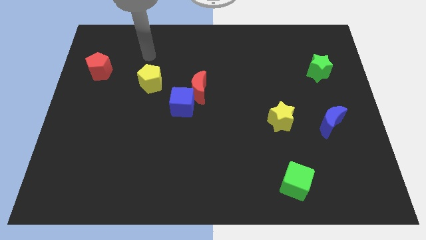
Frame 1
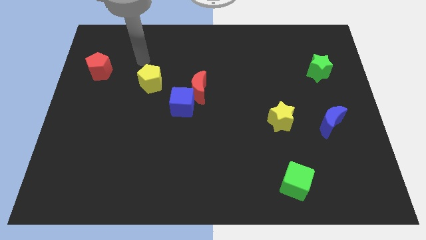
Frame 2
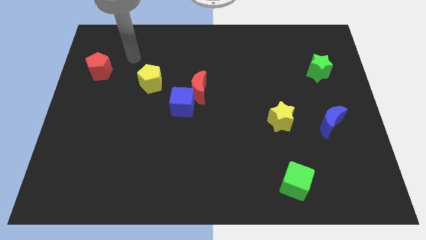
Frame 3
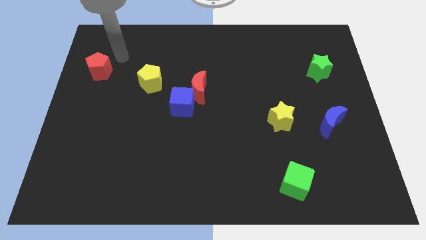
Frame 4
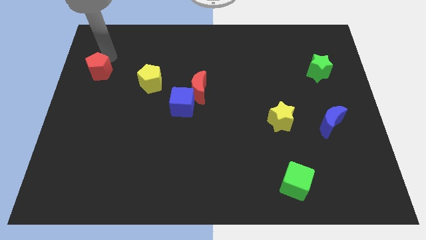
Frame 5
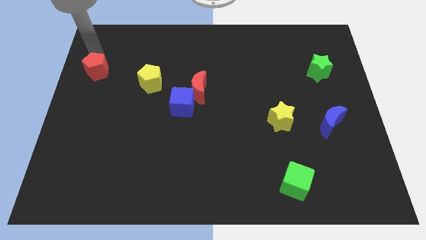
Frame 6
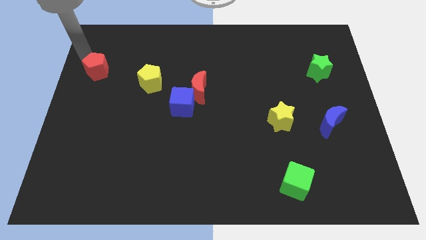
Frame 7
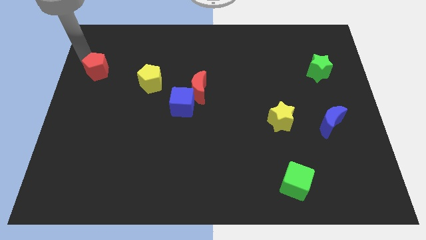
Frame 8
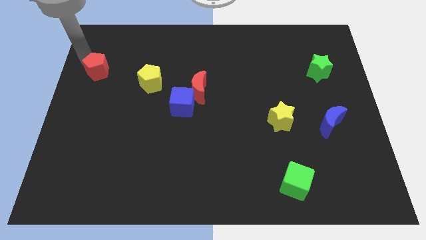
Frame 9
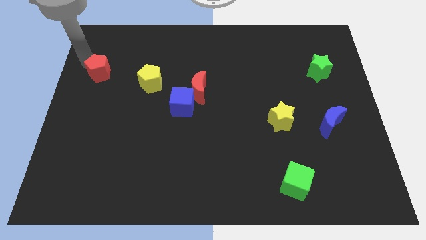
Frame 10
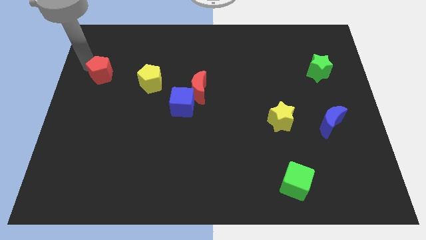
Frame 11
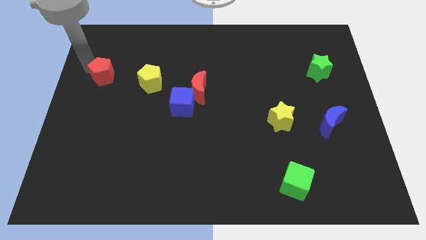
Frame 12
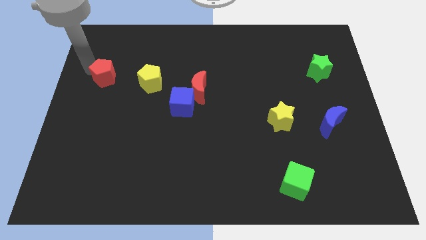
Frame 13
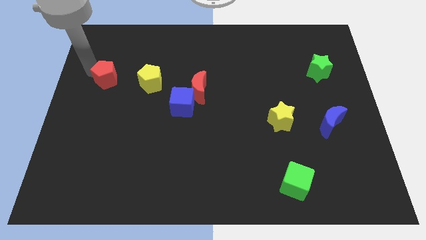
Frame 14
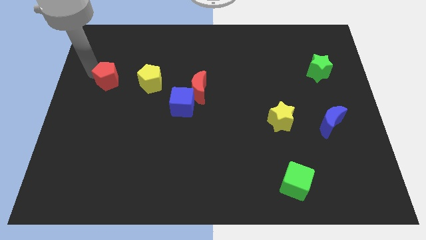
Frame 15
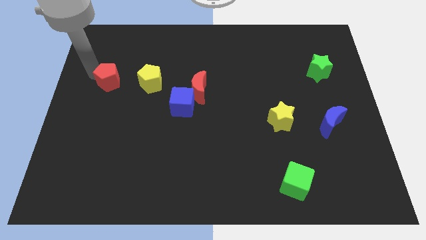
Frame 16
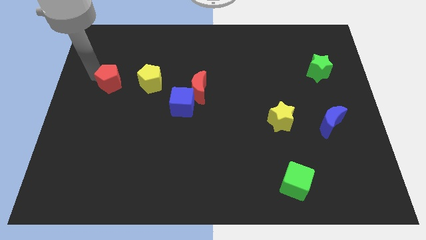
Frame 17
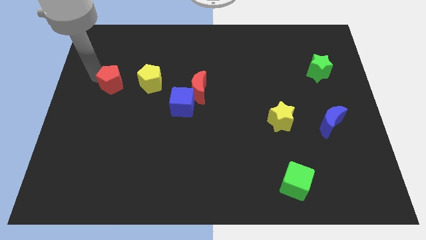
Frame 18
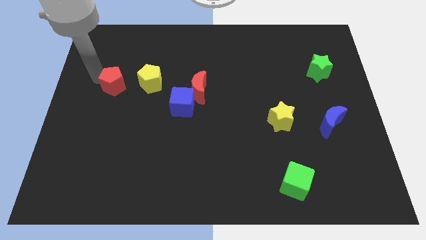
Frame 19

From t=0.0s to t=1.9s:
push the red pentagon a little down and right

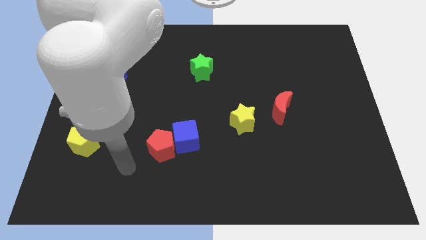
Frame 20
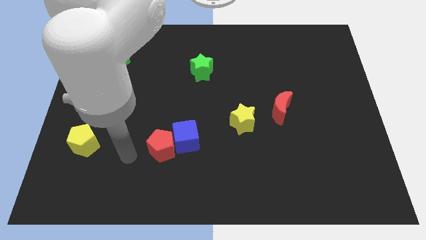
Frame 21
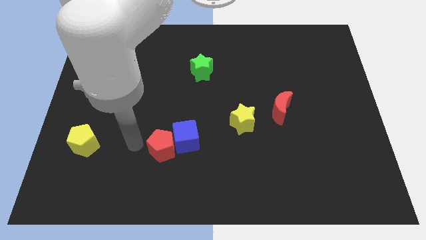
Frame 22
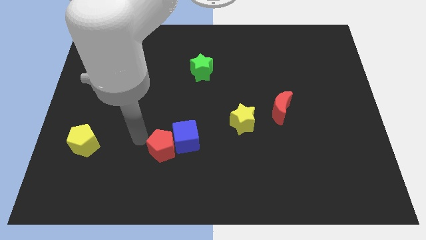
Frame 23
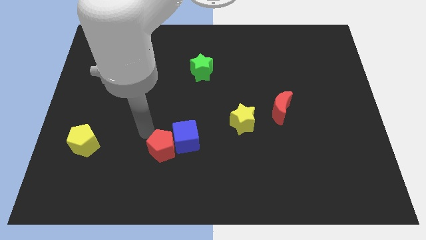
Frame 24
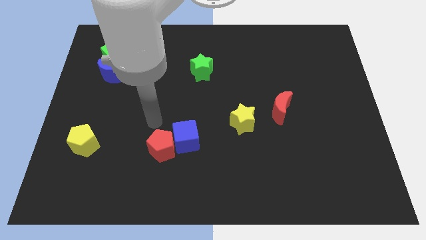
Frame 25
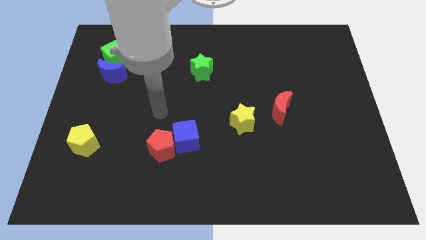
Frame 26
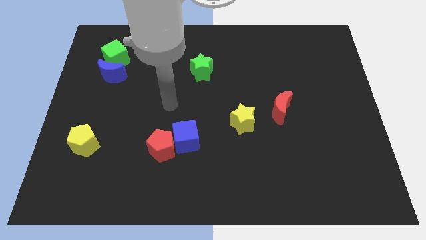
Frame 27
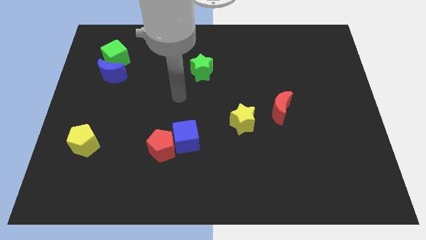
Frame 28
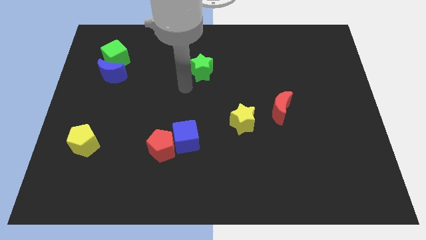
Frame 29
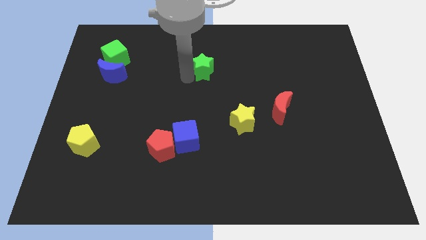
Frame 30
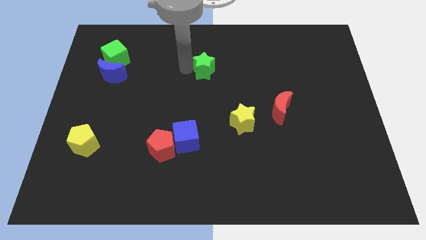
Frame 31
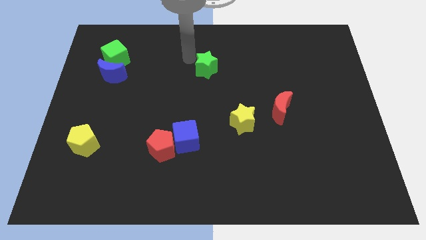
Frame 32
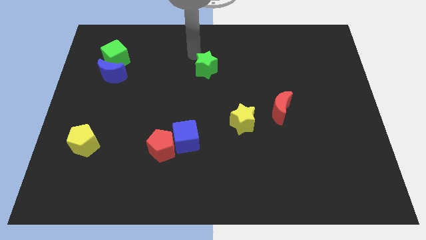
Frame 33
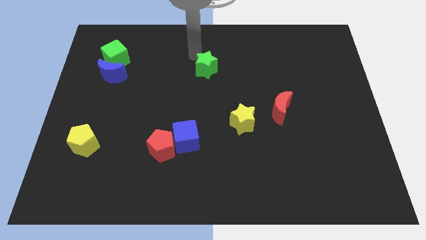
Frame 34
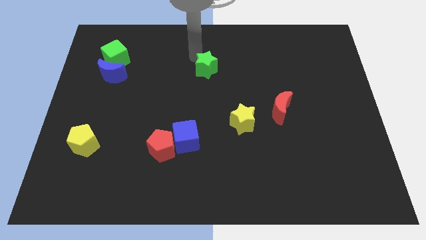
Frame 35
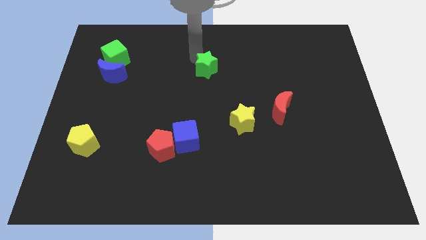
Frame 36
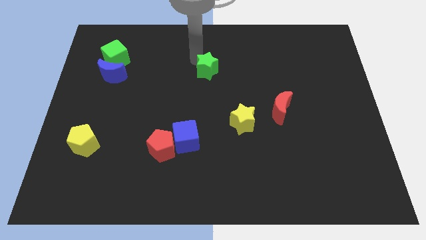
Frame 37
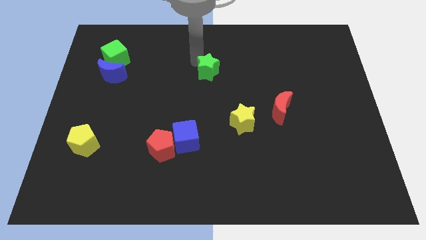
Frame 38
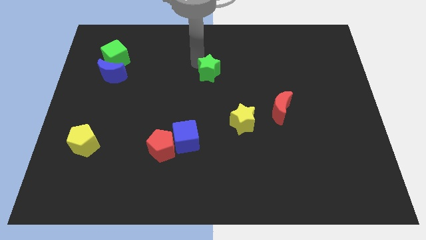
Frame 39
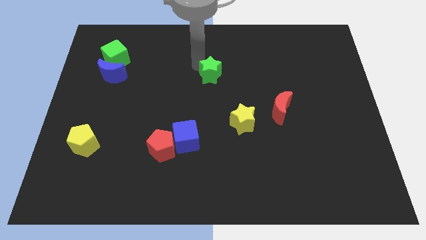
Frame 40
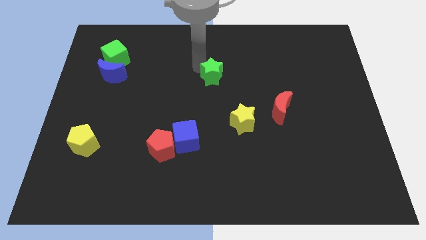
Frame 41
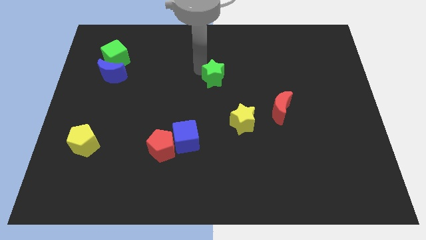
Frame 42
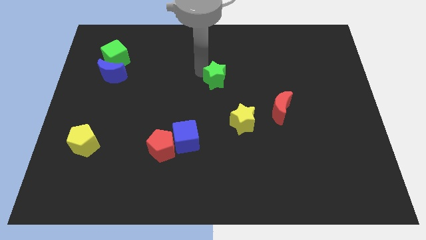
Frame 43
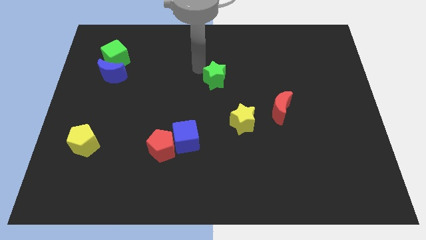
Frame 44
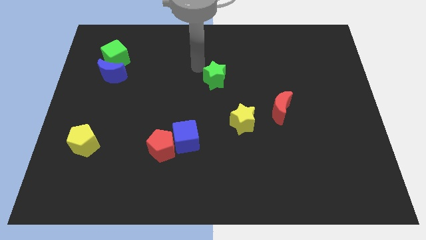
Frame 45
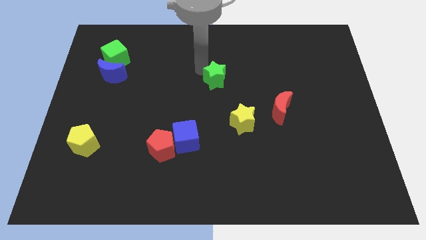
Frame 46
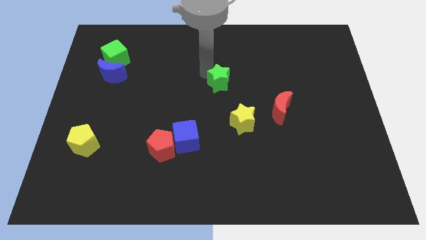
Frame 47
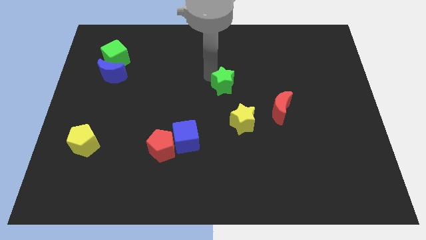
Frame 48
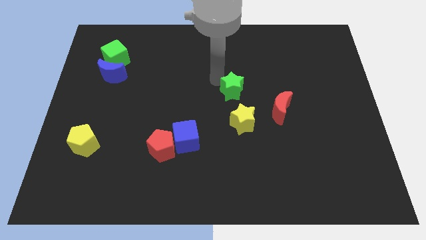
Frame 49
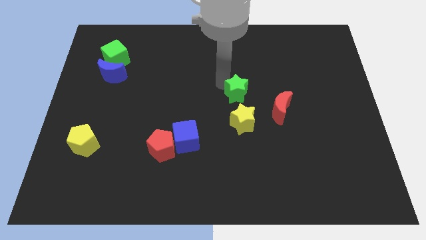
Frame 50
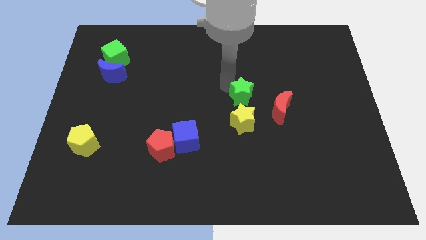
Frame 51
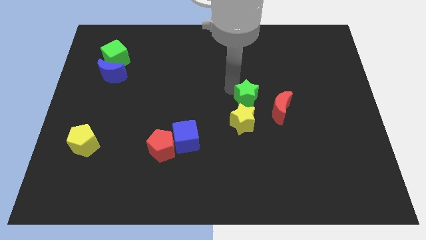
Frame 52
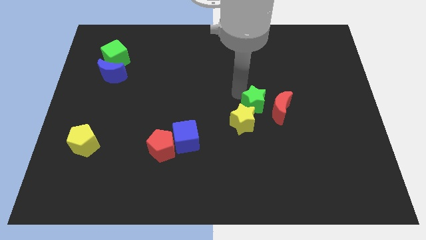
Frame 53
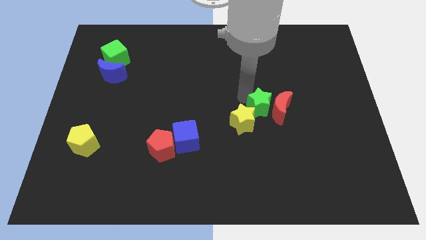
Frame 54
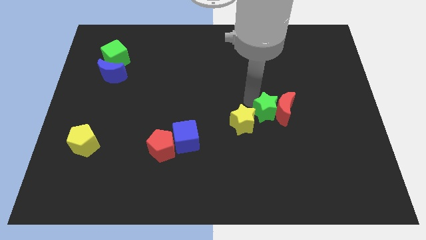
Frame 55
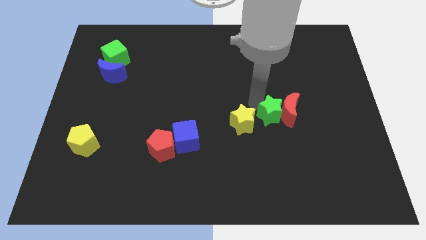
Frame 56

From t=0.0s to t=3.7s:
push the green star down and to the right

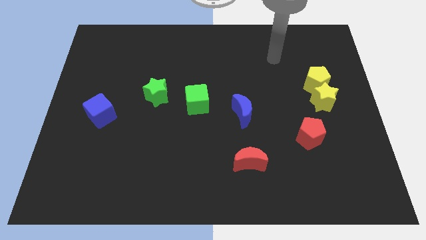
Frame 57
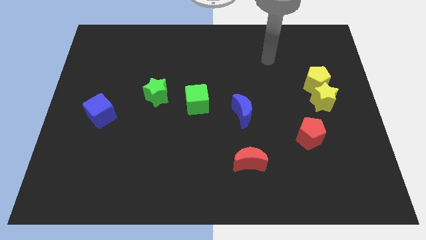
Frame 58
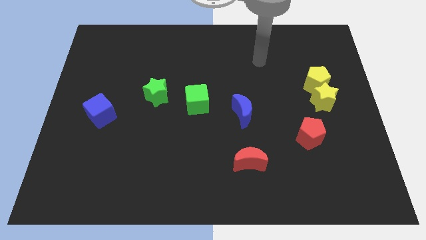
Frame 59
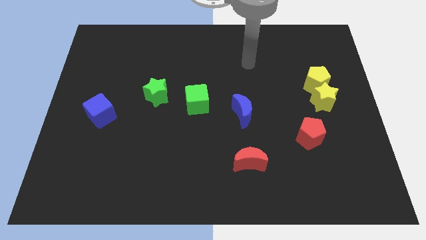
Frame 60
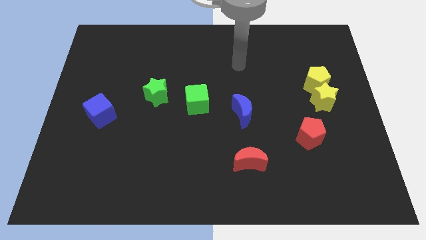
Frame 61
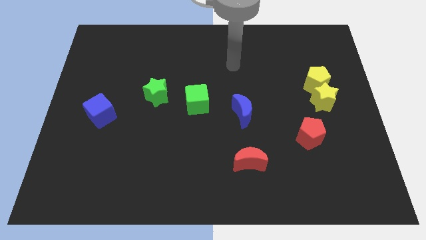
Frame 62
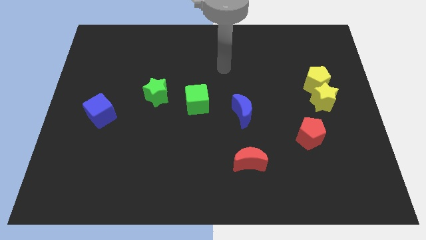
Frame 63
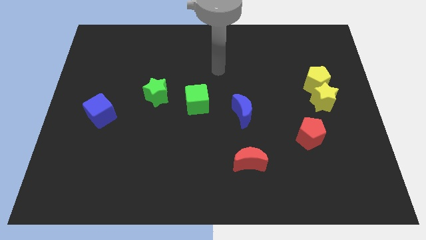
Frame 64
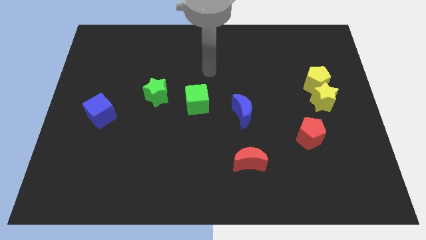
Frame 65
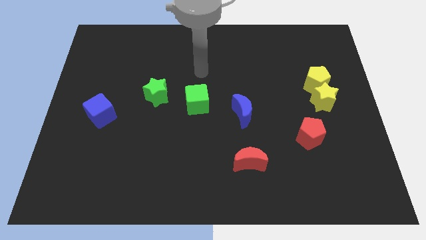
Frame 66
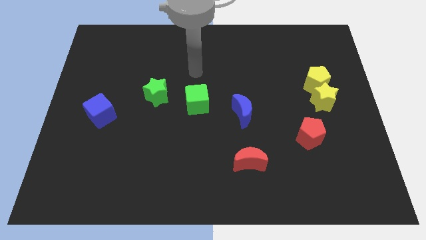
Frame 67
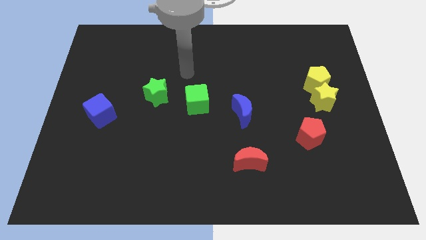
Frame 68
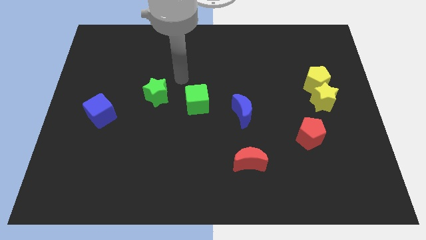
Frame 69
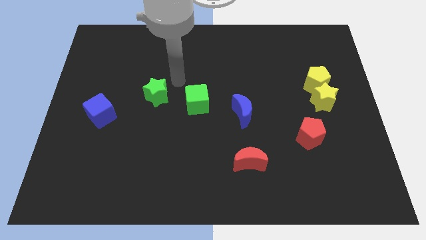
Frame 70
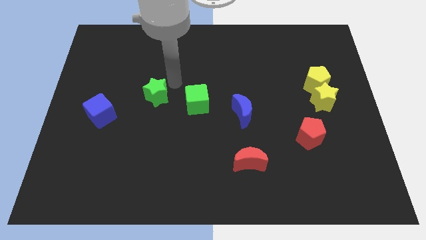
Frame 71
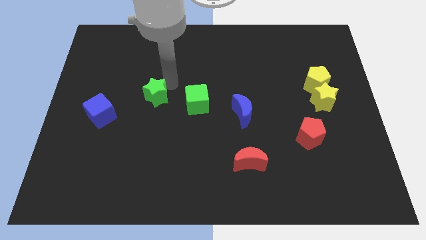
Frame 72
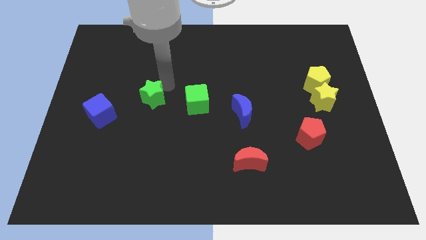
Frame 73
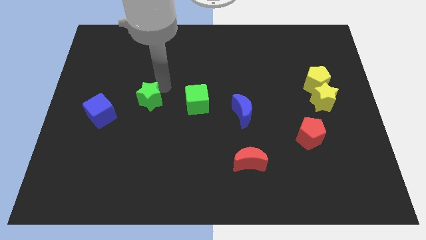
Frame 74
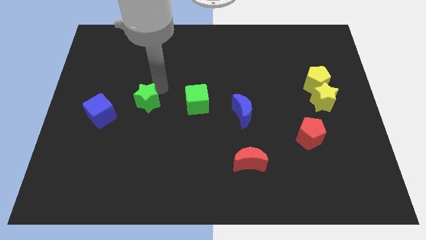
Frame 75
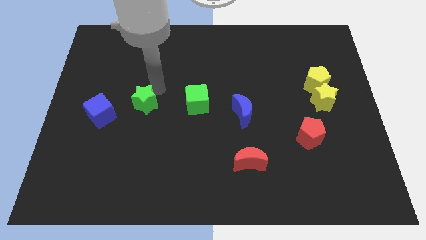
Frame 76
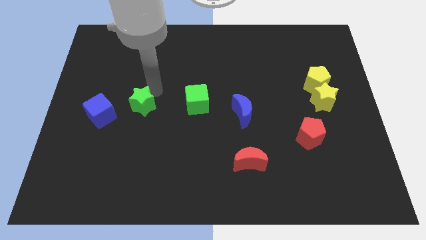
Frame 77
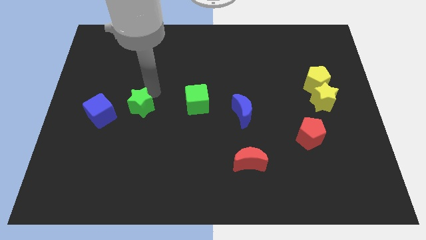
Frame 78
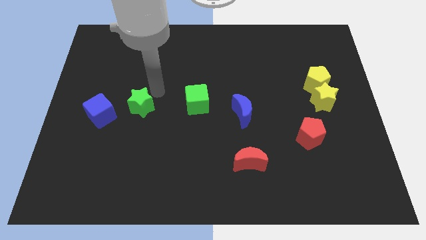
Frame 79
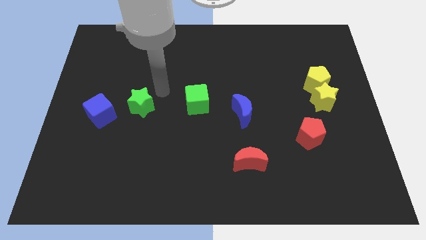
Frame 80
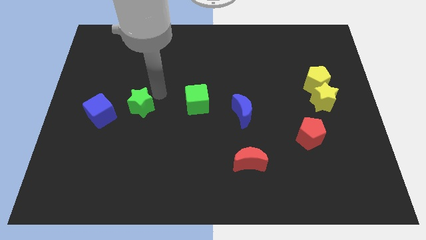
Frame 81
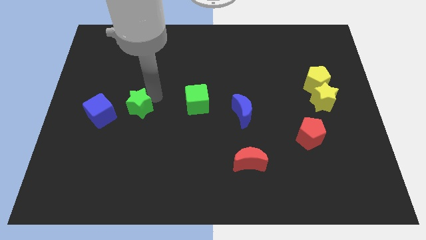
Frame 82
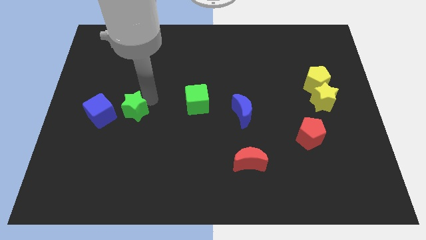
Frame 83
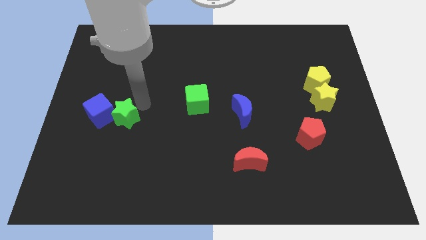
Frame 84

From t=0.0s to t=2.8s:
slightly push the green star down and then left
